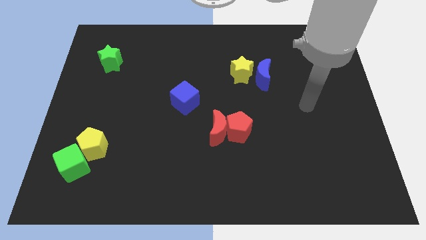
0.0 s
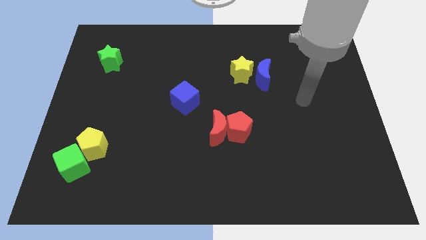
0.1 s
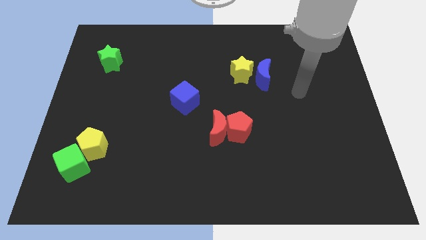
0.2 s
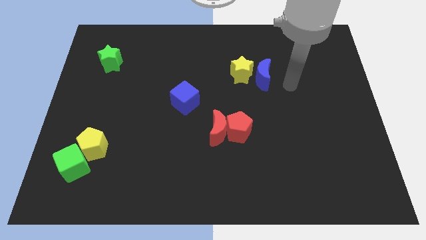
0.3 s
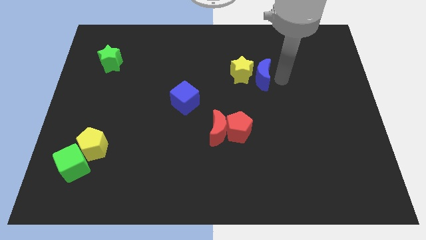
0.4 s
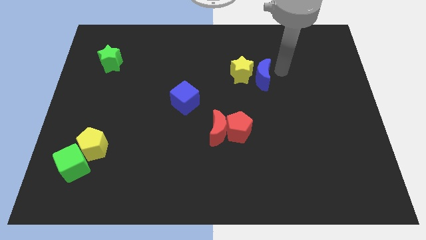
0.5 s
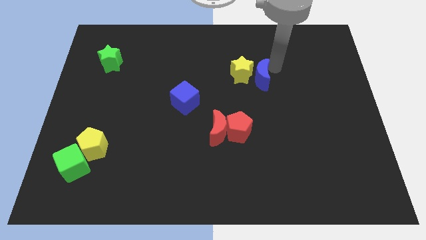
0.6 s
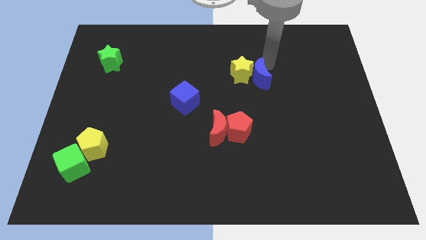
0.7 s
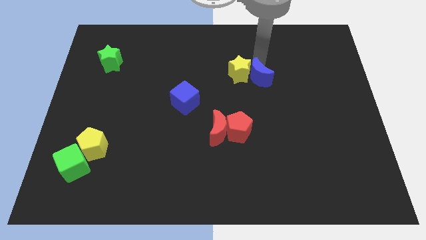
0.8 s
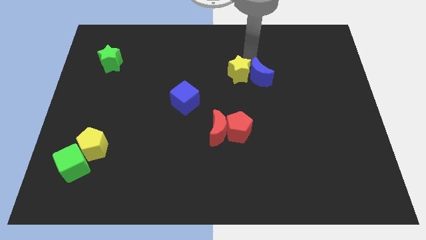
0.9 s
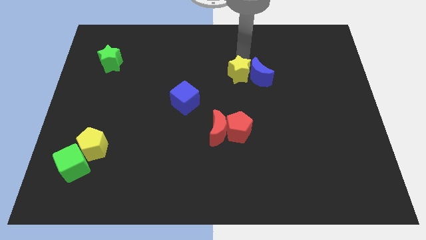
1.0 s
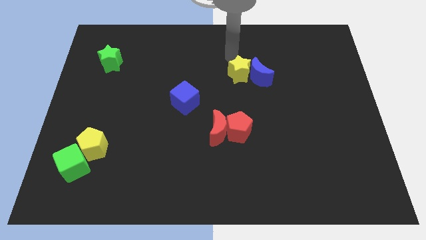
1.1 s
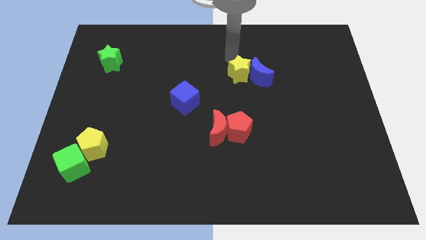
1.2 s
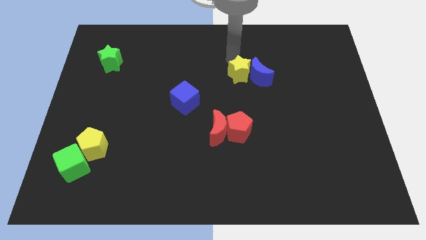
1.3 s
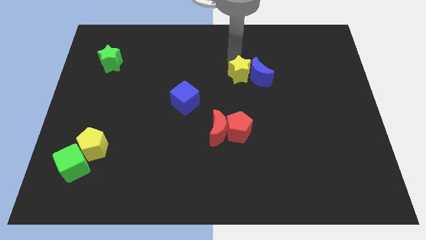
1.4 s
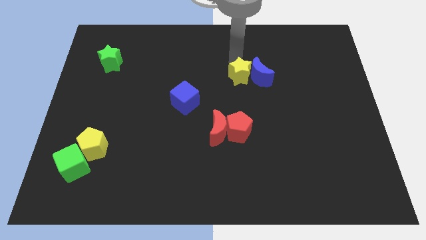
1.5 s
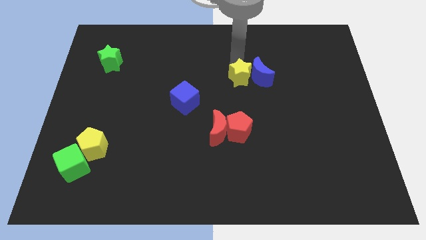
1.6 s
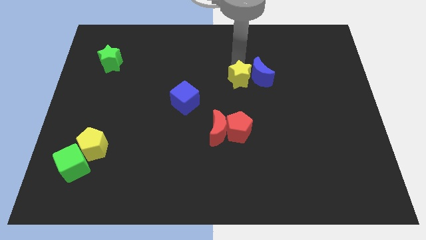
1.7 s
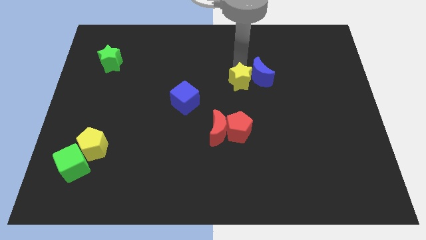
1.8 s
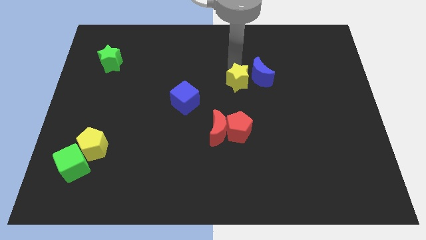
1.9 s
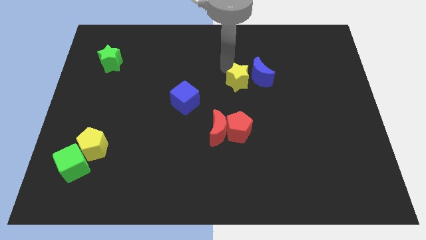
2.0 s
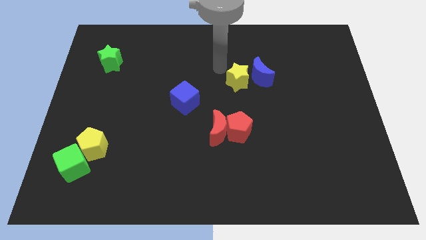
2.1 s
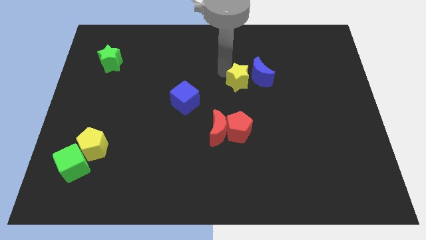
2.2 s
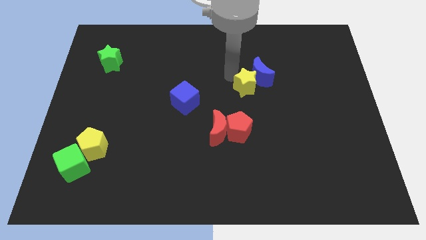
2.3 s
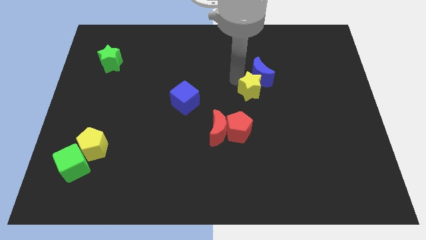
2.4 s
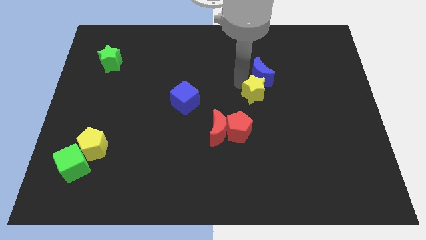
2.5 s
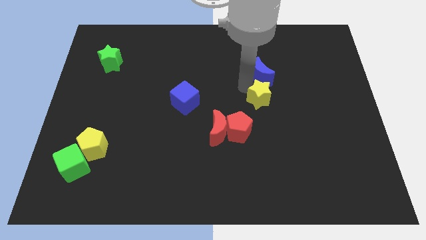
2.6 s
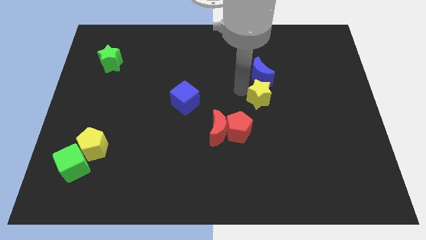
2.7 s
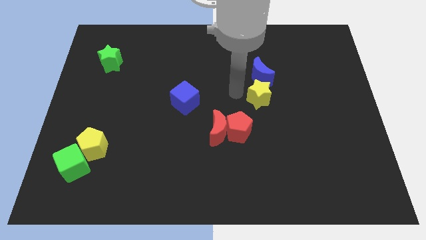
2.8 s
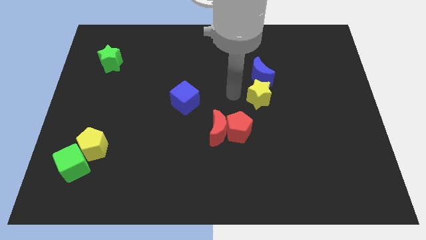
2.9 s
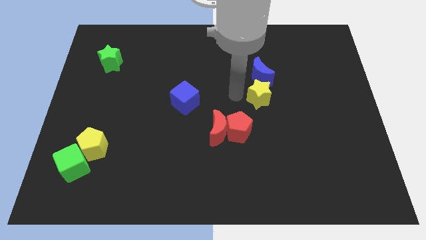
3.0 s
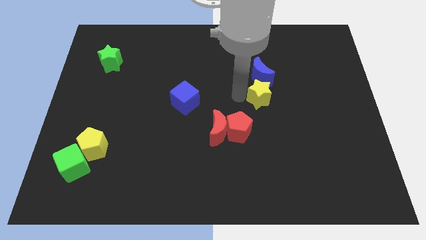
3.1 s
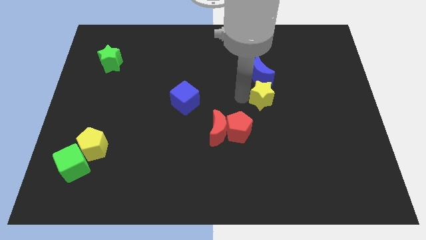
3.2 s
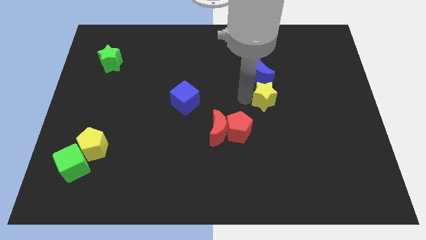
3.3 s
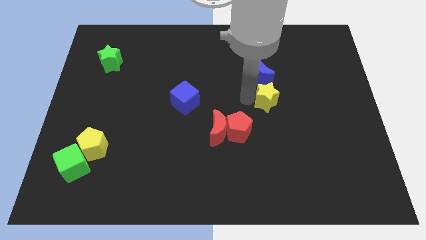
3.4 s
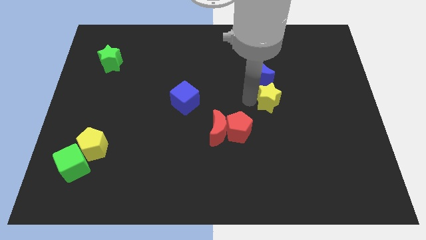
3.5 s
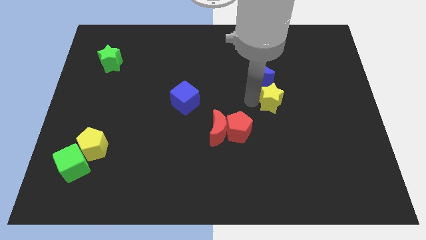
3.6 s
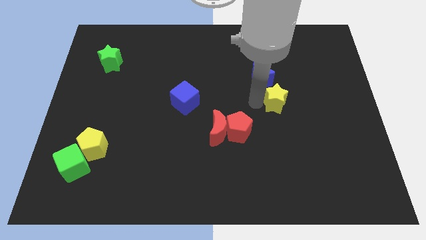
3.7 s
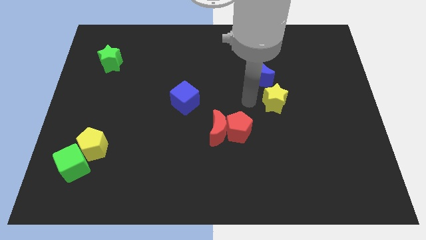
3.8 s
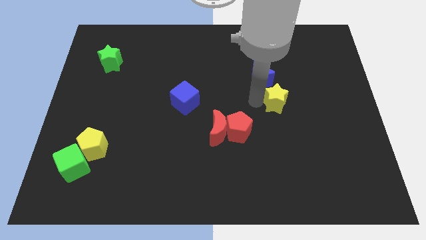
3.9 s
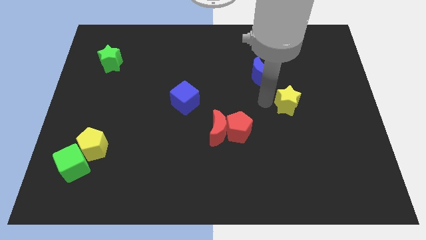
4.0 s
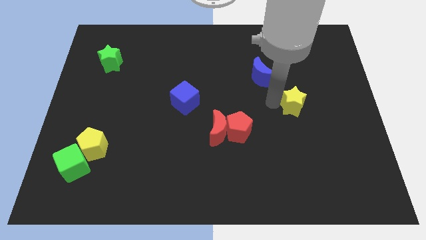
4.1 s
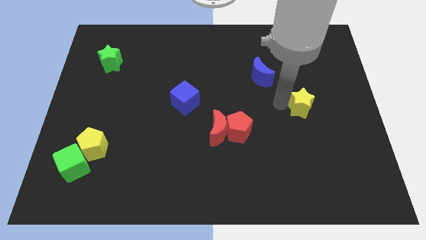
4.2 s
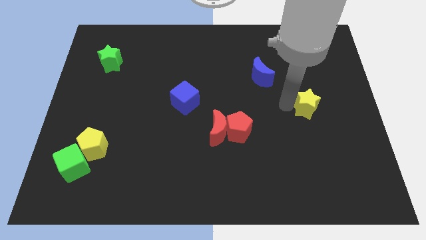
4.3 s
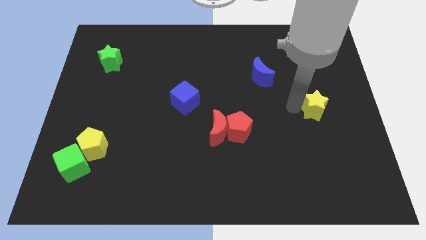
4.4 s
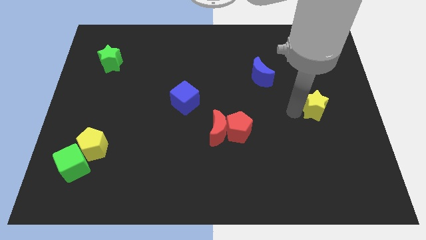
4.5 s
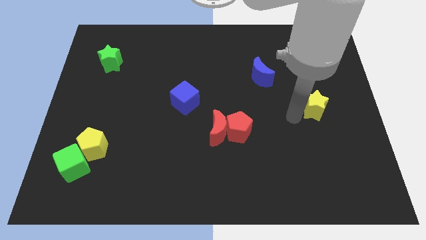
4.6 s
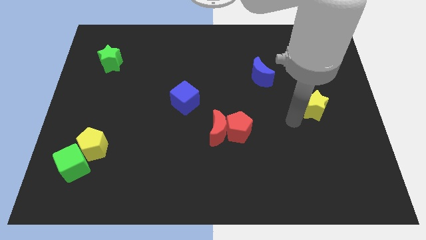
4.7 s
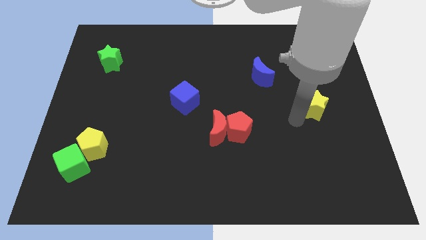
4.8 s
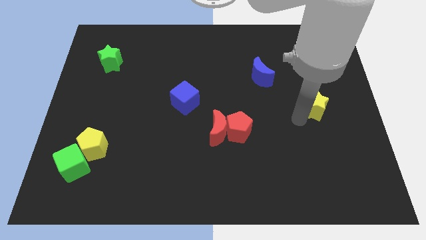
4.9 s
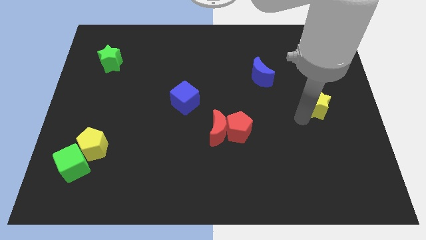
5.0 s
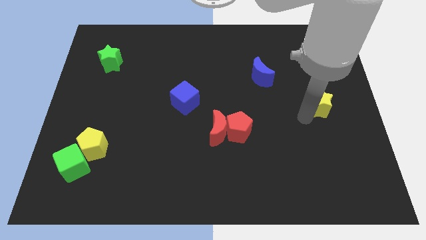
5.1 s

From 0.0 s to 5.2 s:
move the yellow star to the right side

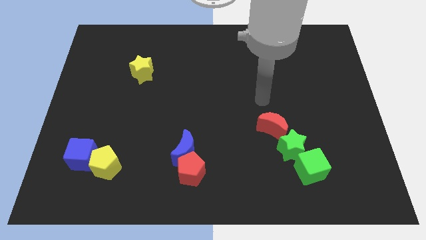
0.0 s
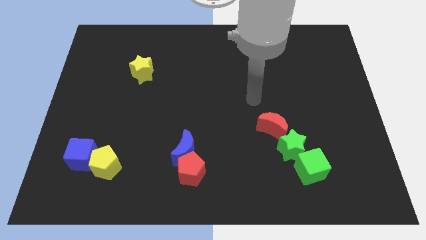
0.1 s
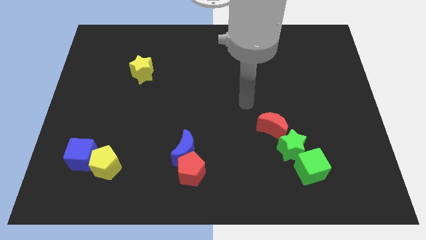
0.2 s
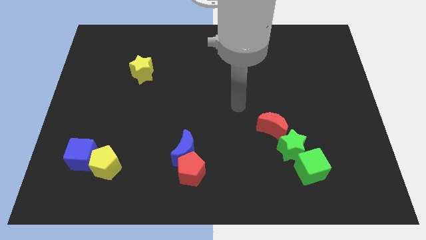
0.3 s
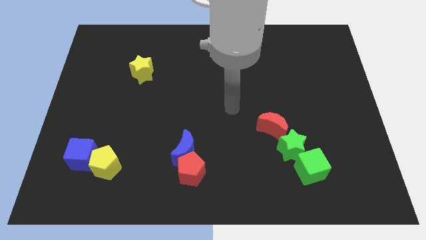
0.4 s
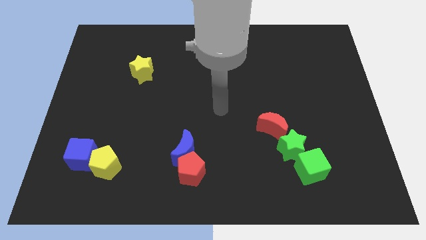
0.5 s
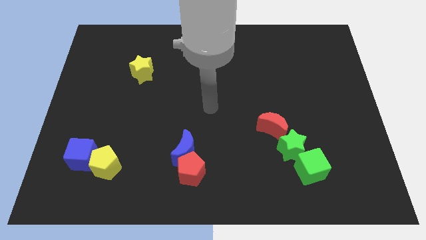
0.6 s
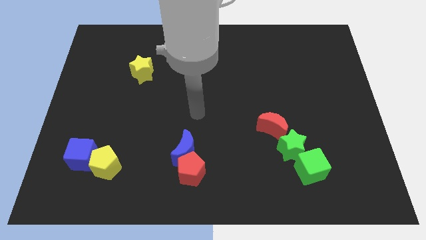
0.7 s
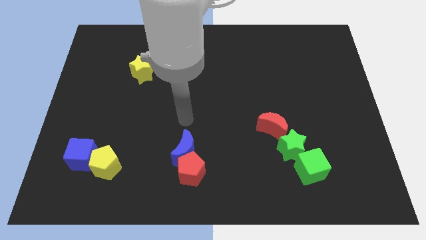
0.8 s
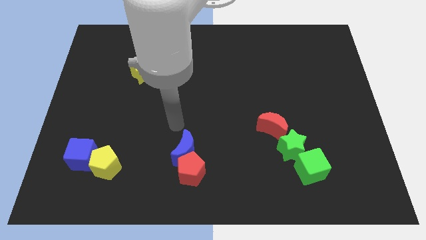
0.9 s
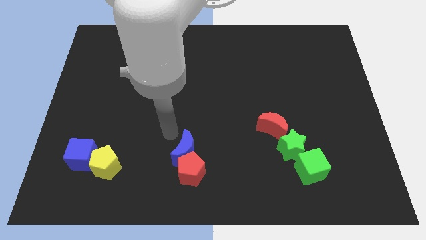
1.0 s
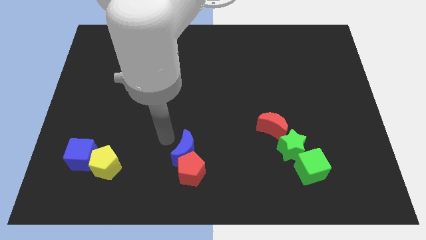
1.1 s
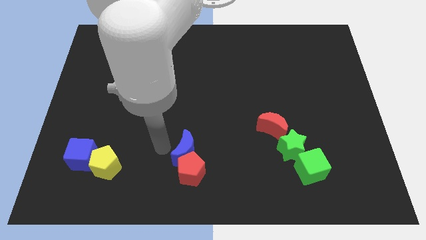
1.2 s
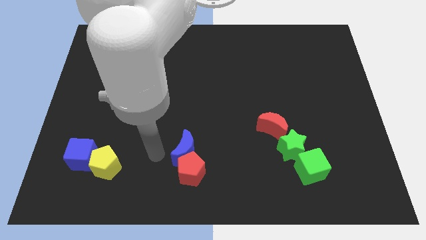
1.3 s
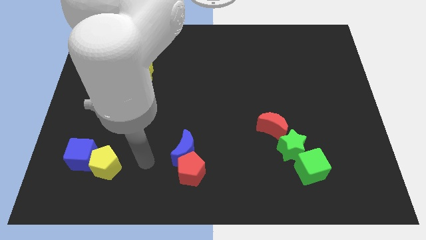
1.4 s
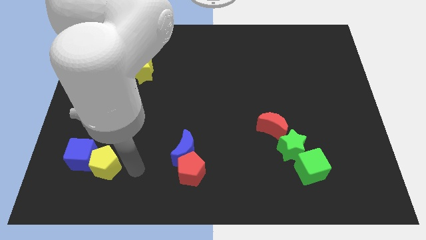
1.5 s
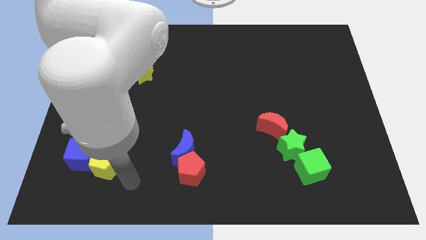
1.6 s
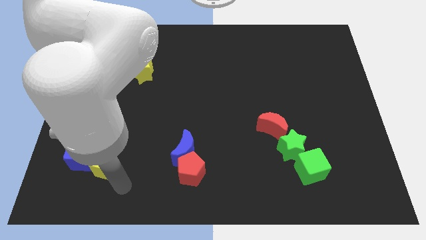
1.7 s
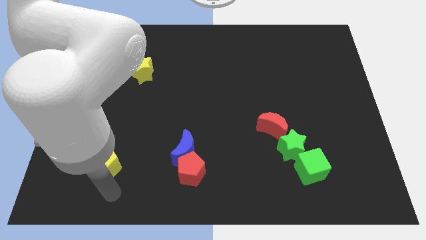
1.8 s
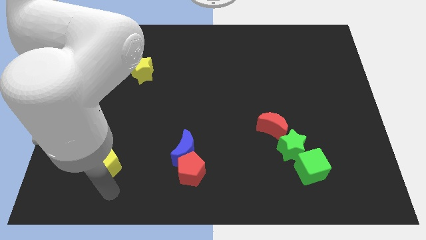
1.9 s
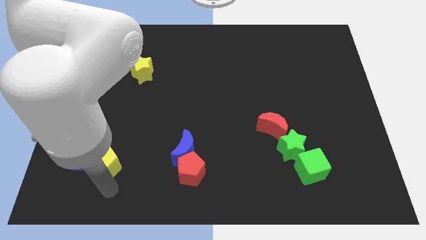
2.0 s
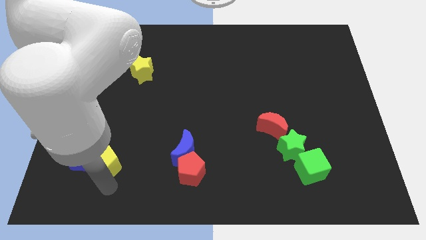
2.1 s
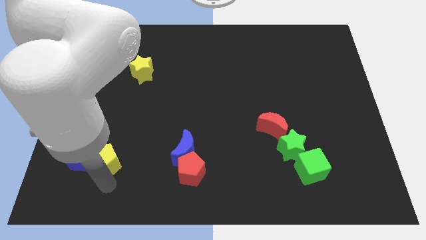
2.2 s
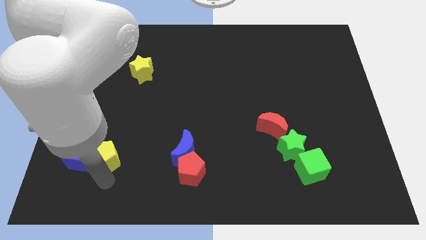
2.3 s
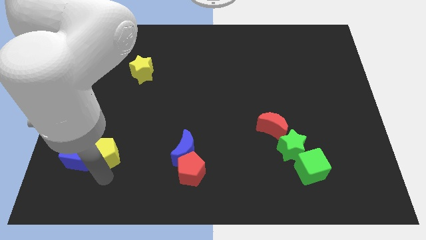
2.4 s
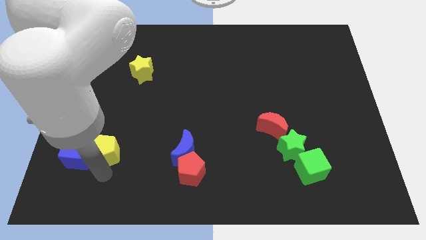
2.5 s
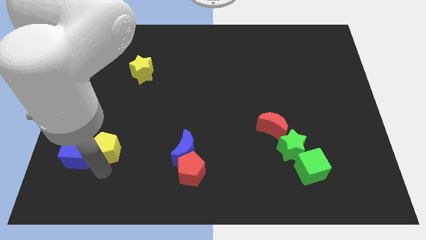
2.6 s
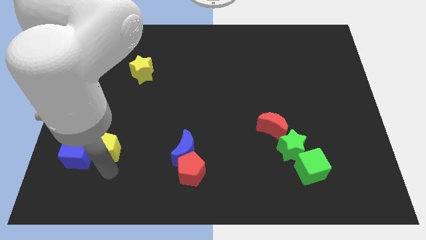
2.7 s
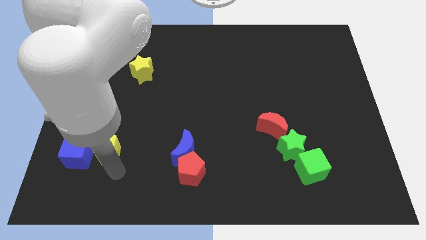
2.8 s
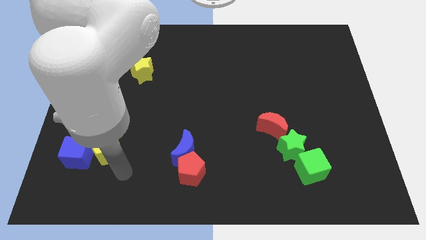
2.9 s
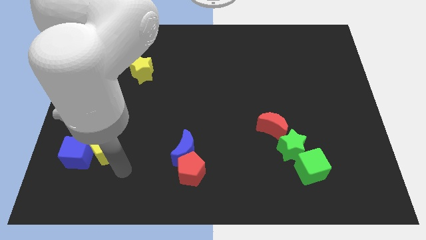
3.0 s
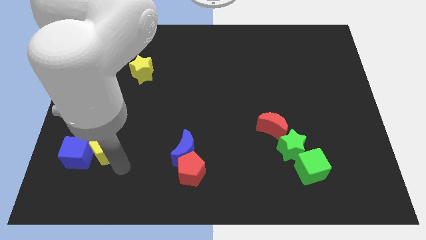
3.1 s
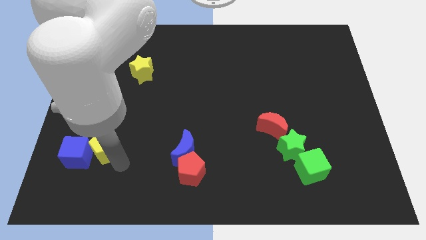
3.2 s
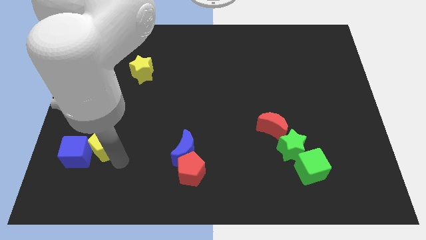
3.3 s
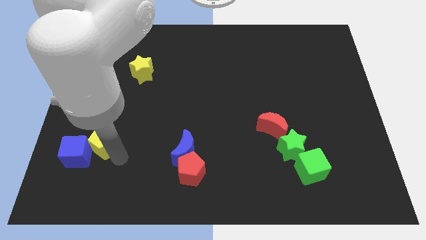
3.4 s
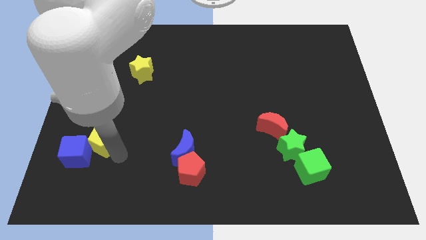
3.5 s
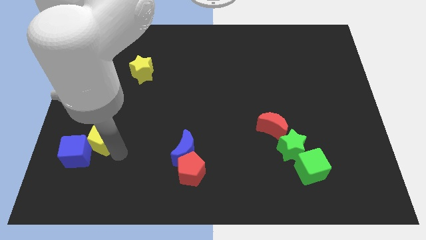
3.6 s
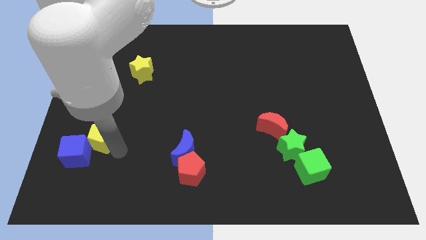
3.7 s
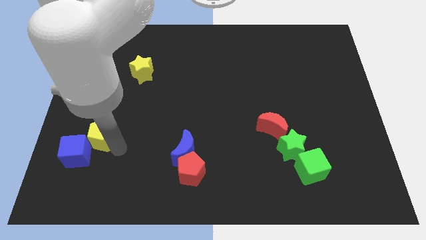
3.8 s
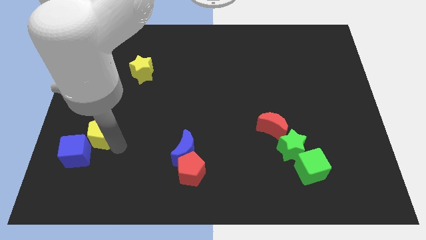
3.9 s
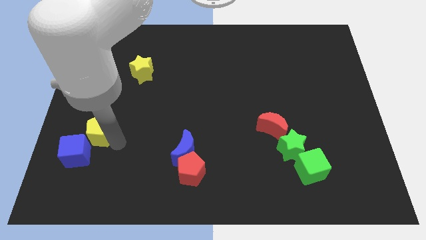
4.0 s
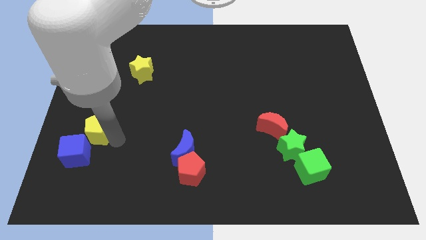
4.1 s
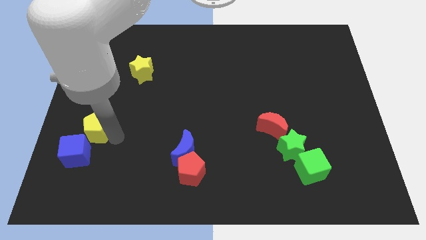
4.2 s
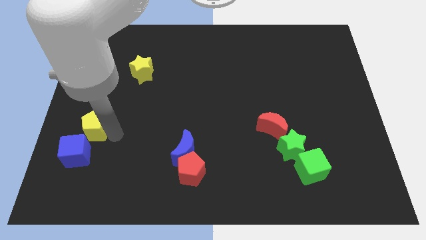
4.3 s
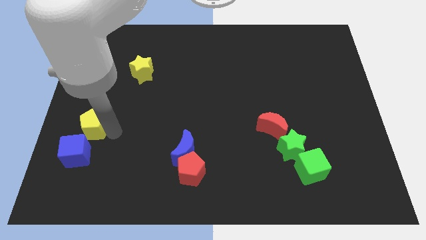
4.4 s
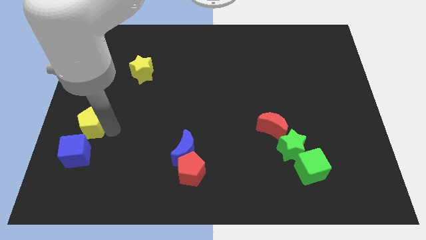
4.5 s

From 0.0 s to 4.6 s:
put the yellow pentagon to the center left
